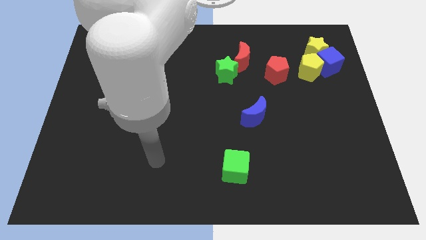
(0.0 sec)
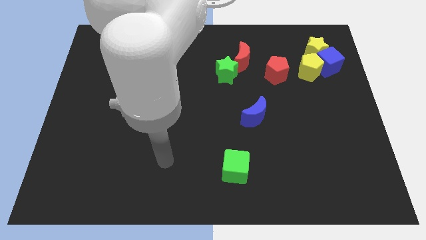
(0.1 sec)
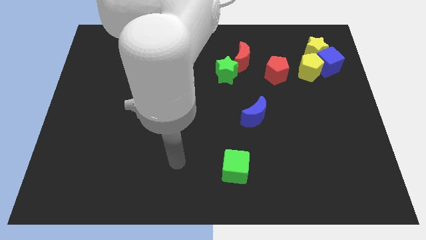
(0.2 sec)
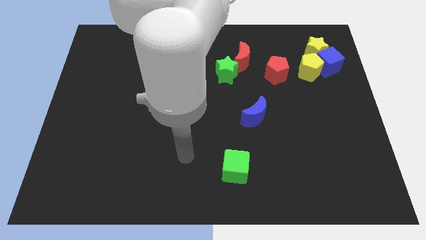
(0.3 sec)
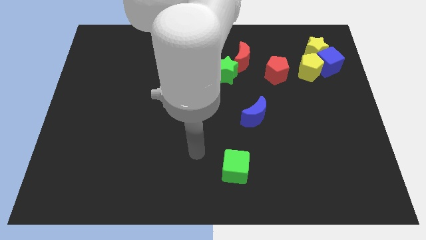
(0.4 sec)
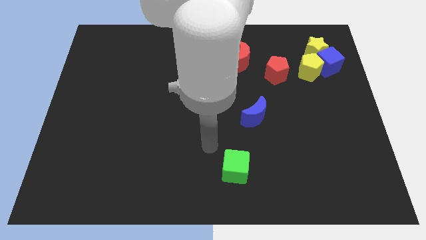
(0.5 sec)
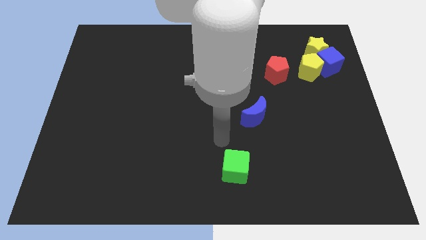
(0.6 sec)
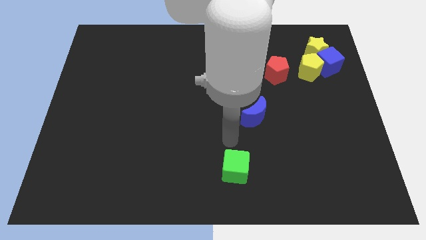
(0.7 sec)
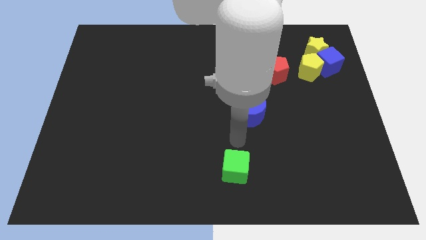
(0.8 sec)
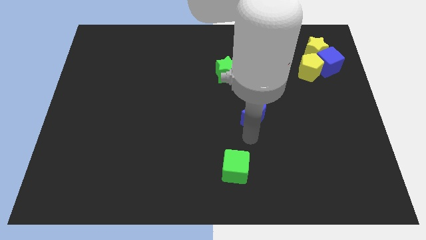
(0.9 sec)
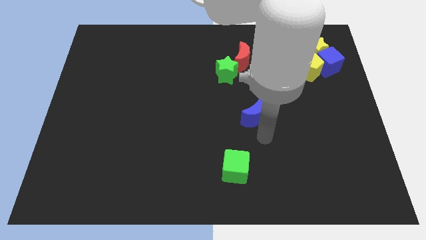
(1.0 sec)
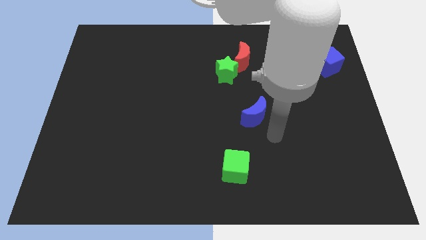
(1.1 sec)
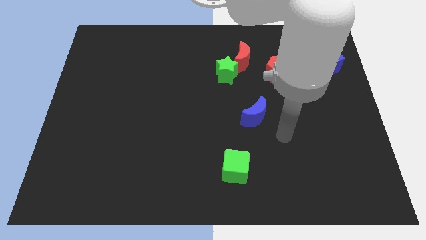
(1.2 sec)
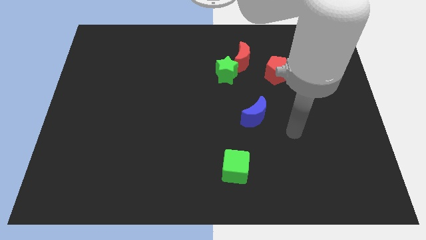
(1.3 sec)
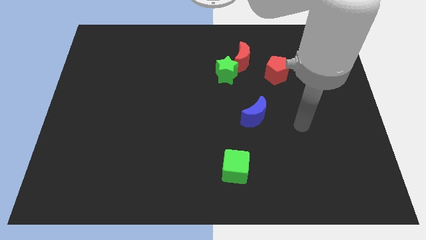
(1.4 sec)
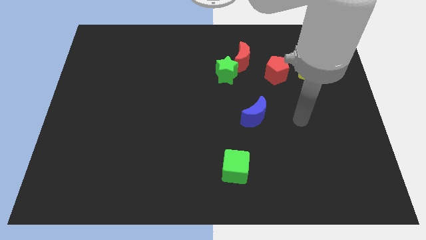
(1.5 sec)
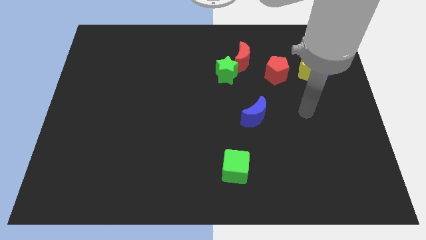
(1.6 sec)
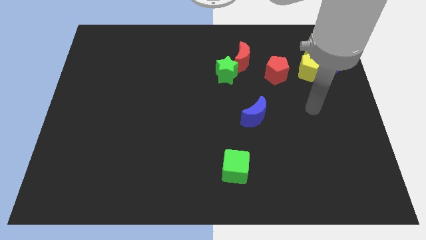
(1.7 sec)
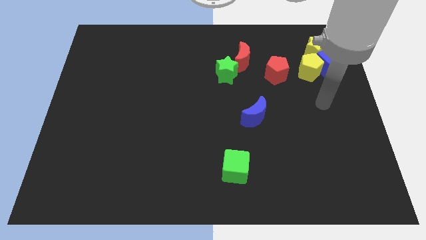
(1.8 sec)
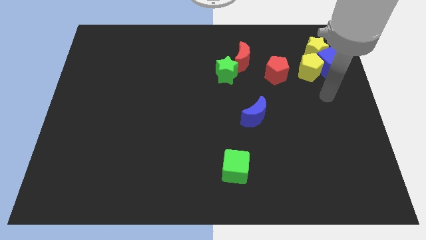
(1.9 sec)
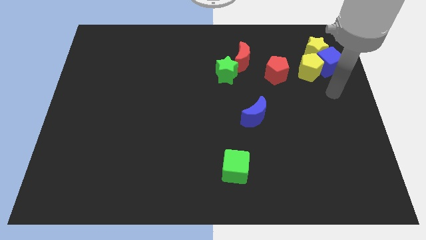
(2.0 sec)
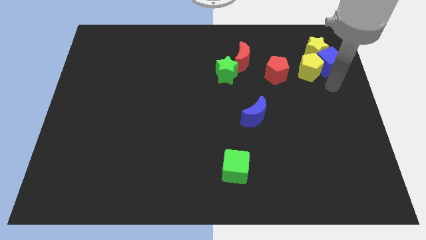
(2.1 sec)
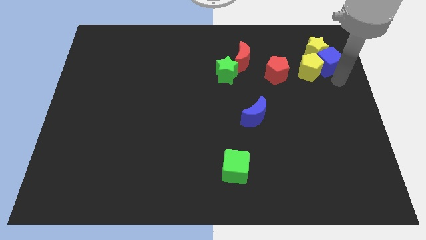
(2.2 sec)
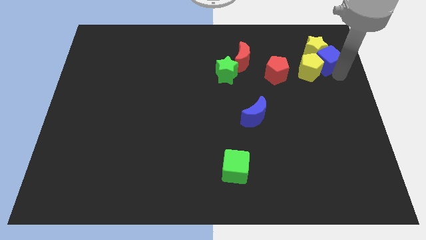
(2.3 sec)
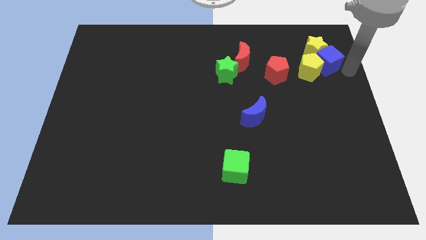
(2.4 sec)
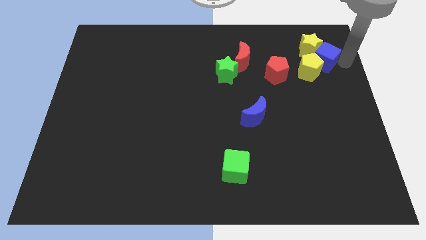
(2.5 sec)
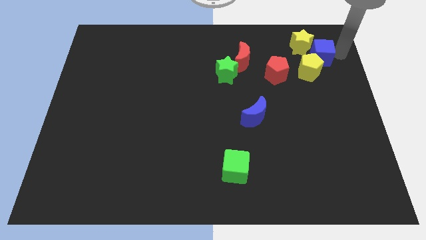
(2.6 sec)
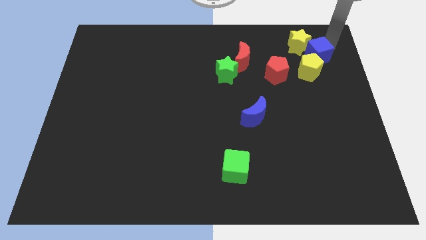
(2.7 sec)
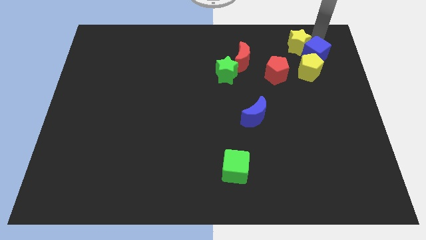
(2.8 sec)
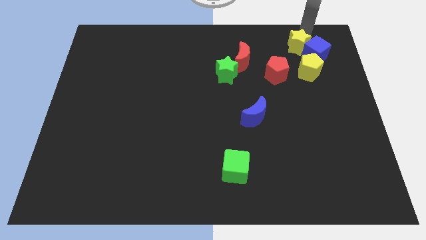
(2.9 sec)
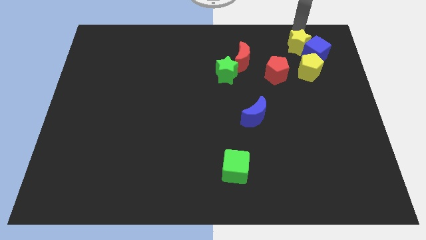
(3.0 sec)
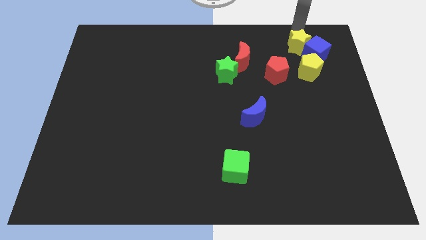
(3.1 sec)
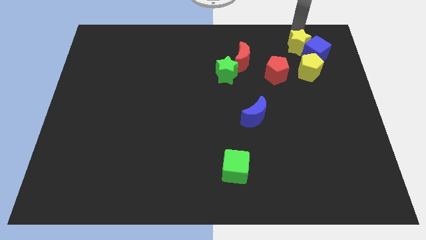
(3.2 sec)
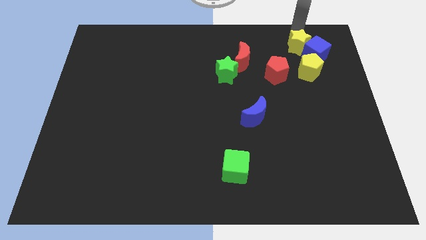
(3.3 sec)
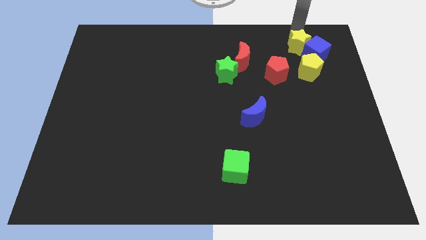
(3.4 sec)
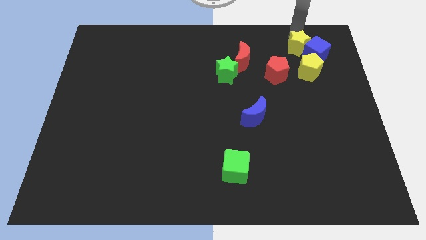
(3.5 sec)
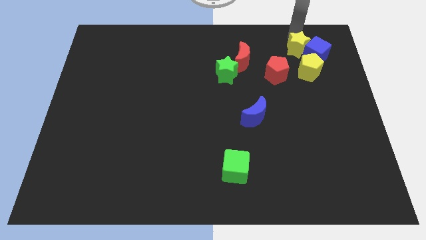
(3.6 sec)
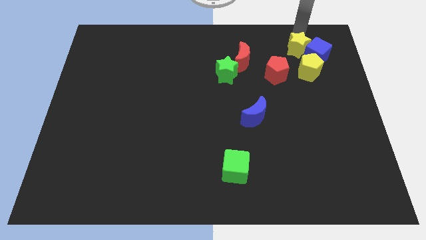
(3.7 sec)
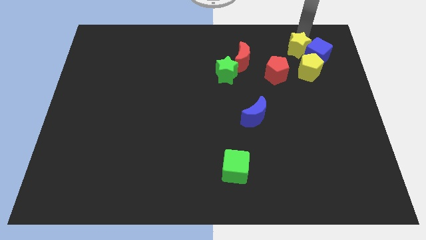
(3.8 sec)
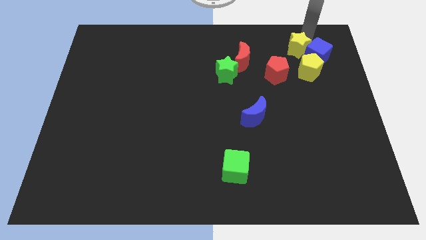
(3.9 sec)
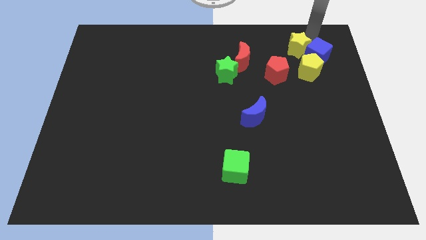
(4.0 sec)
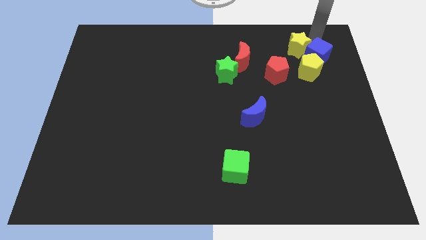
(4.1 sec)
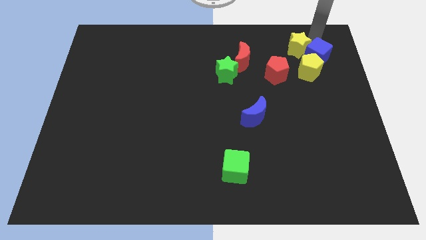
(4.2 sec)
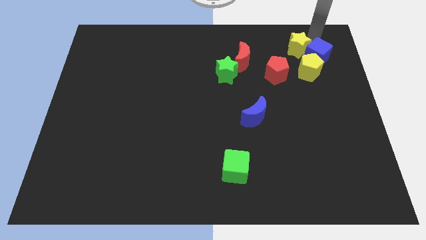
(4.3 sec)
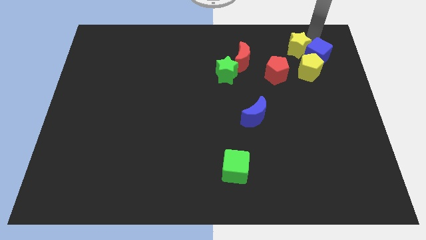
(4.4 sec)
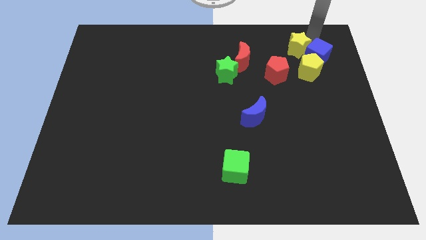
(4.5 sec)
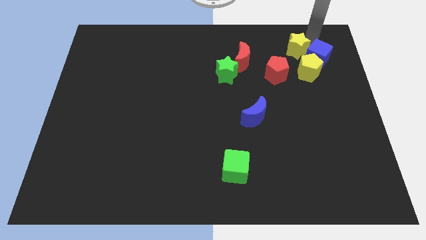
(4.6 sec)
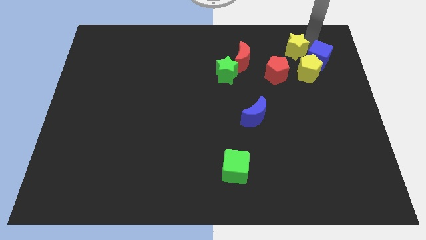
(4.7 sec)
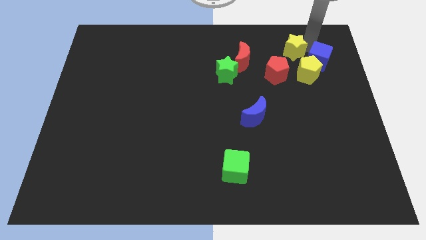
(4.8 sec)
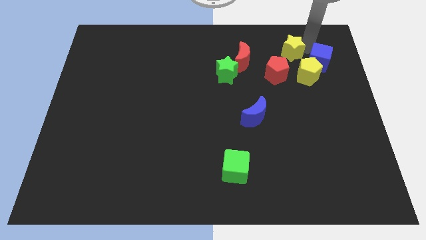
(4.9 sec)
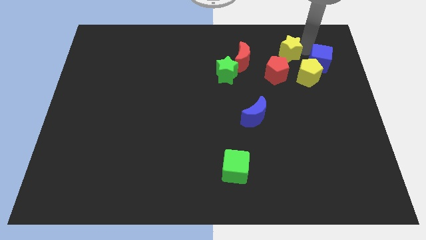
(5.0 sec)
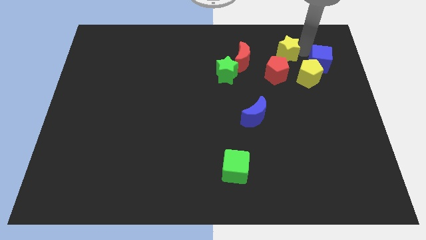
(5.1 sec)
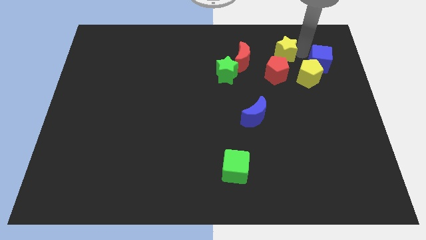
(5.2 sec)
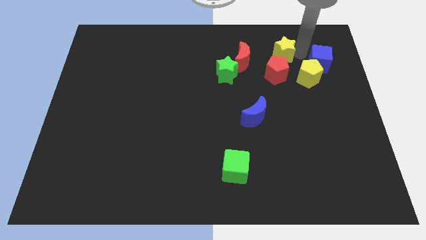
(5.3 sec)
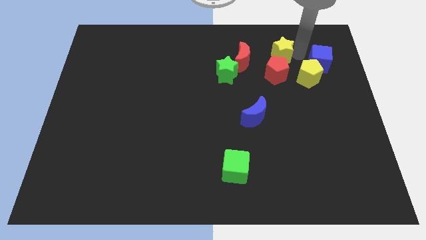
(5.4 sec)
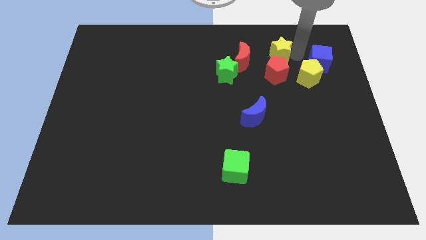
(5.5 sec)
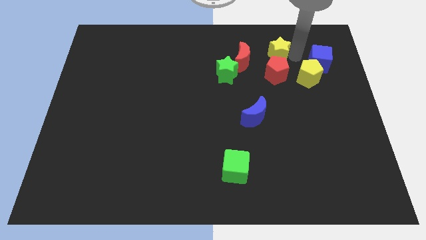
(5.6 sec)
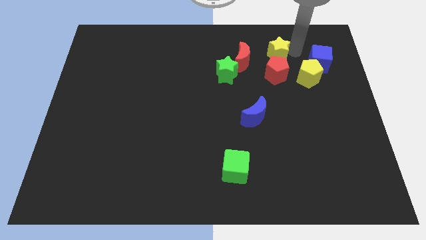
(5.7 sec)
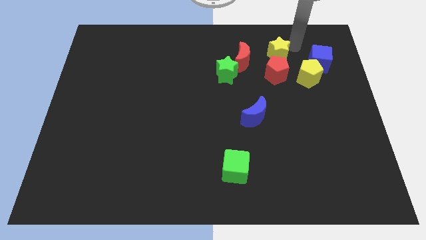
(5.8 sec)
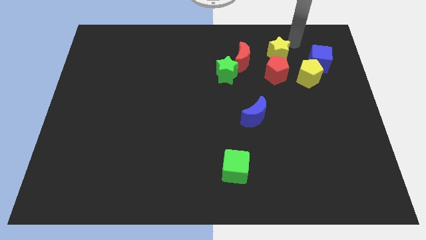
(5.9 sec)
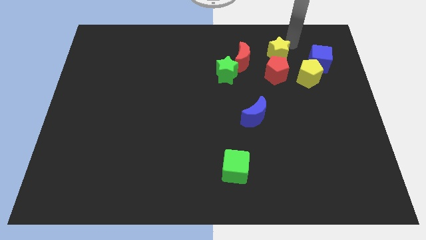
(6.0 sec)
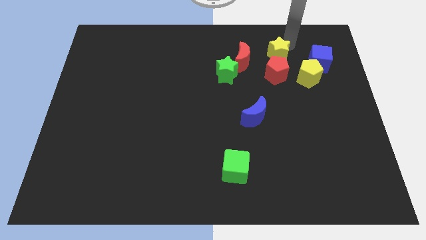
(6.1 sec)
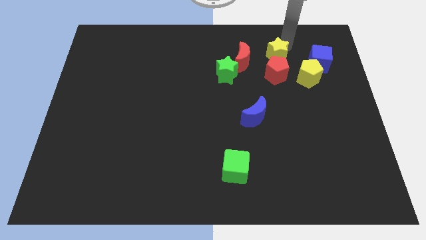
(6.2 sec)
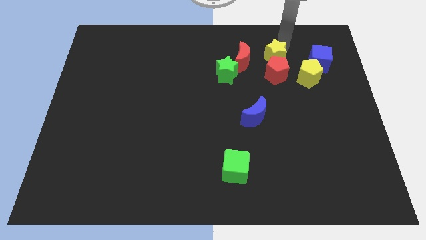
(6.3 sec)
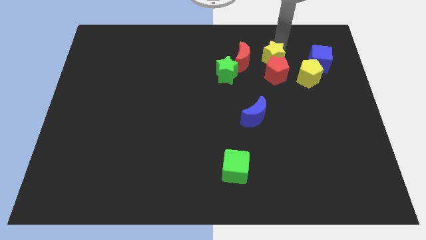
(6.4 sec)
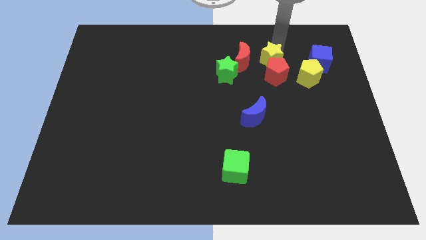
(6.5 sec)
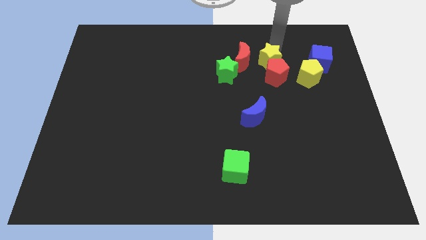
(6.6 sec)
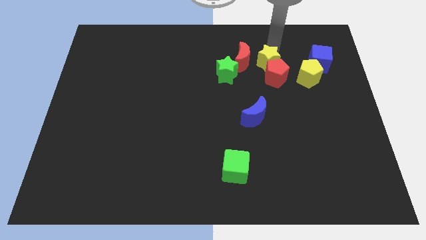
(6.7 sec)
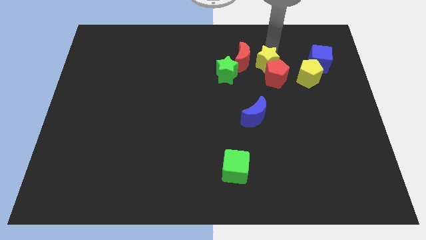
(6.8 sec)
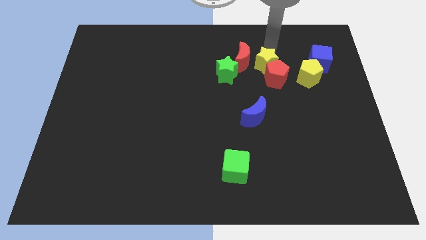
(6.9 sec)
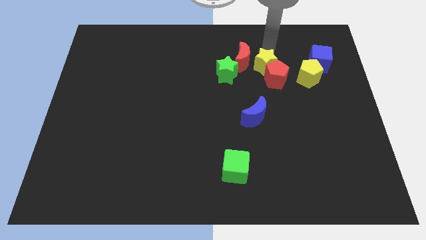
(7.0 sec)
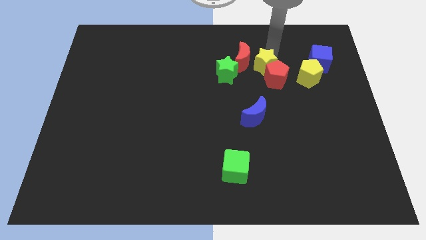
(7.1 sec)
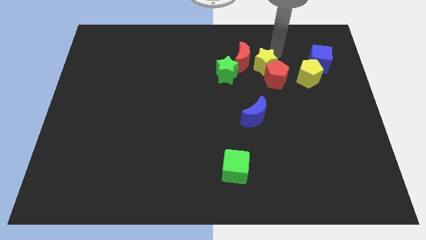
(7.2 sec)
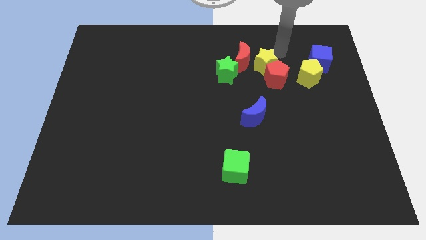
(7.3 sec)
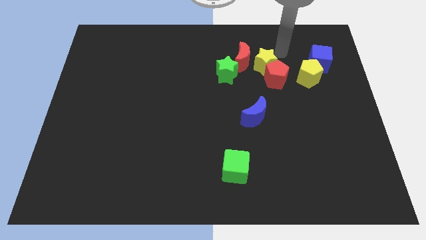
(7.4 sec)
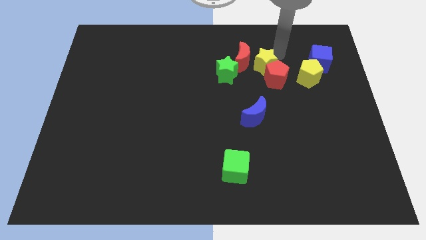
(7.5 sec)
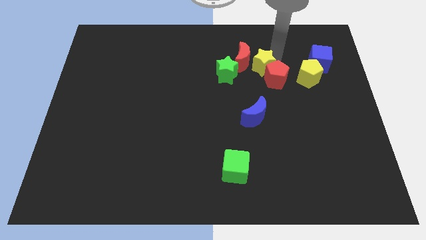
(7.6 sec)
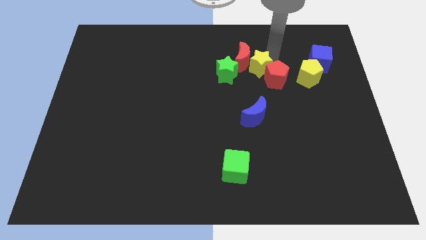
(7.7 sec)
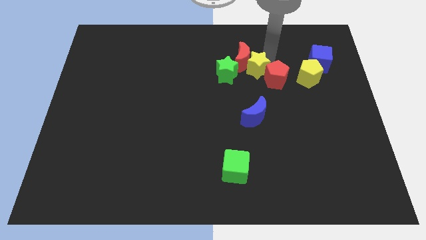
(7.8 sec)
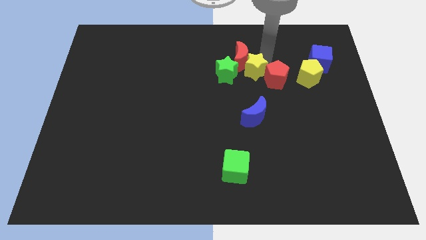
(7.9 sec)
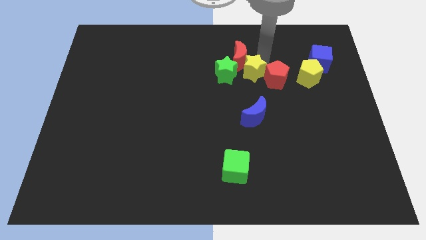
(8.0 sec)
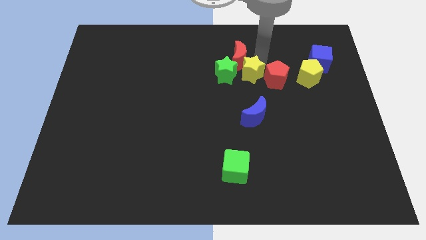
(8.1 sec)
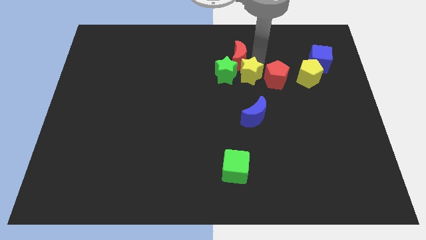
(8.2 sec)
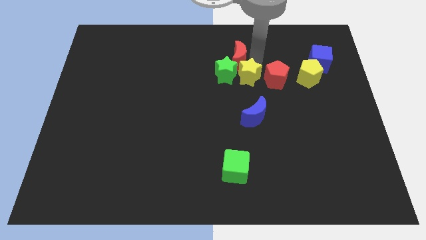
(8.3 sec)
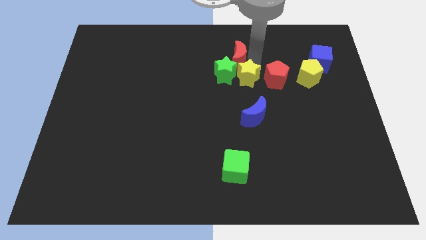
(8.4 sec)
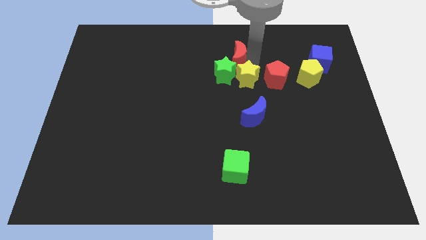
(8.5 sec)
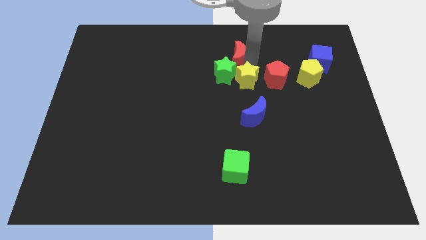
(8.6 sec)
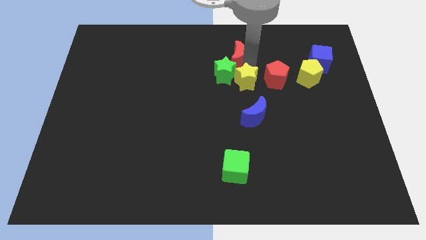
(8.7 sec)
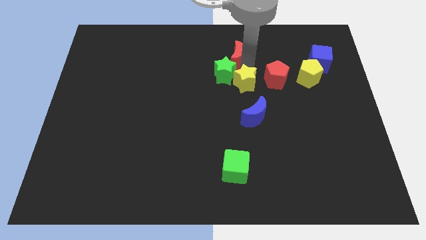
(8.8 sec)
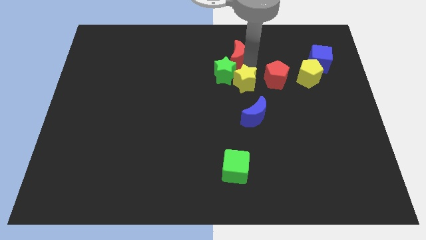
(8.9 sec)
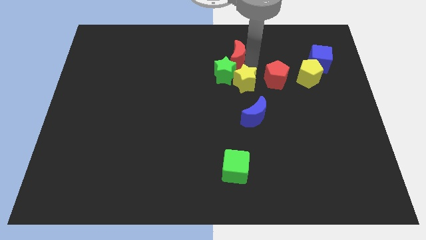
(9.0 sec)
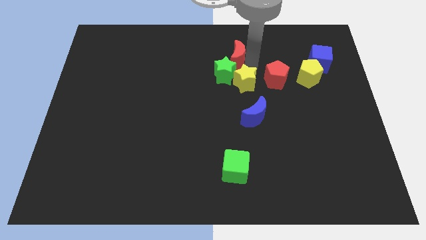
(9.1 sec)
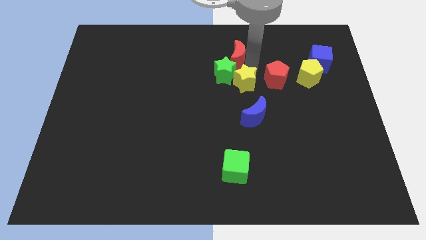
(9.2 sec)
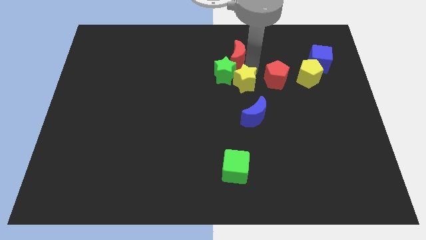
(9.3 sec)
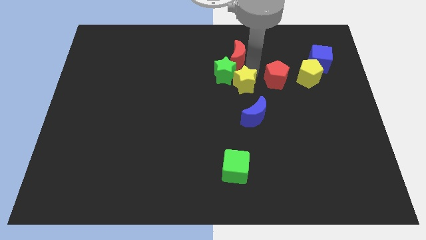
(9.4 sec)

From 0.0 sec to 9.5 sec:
move the yellow star downwards and to the left
